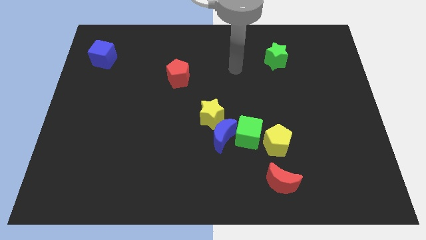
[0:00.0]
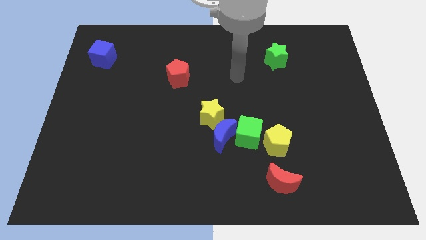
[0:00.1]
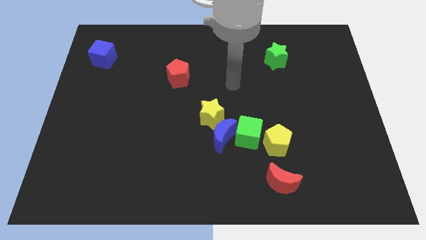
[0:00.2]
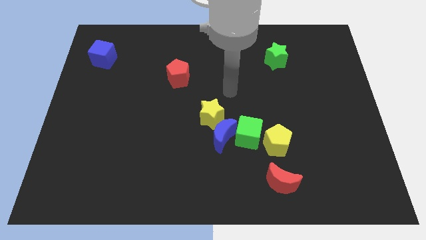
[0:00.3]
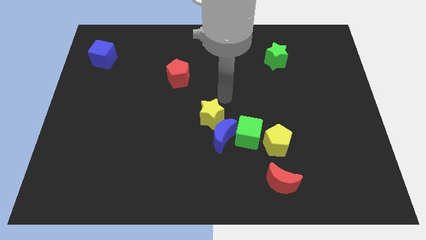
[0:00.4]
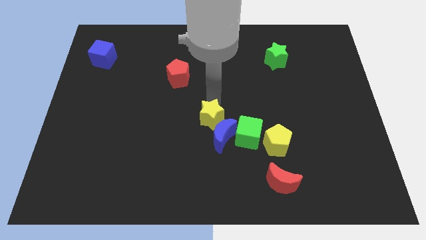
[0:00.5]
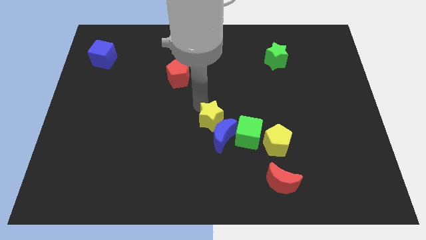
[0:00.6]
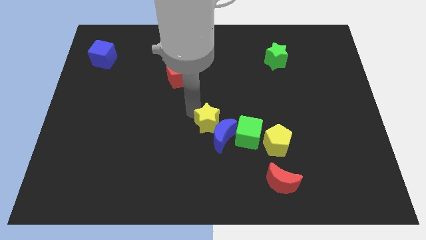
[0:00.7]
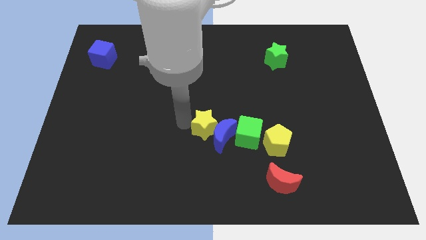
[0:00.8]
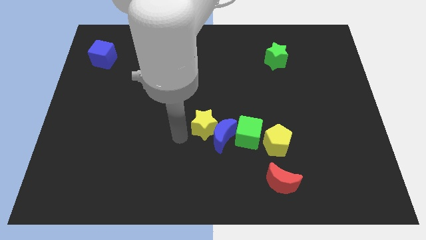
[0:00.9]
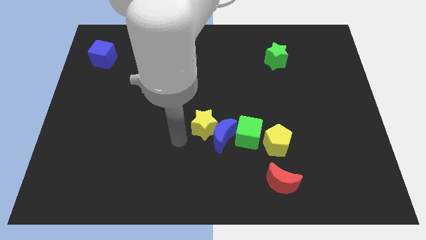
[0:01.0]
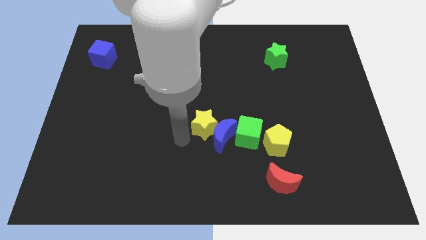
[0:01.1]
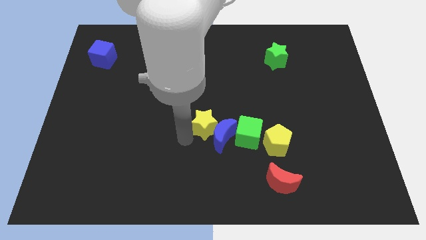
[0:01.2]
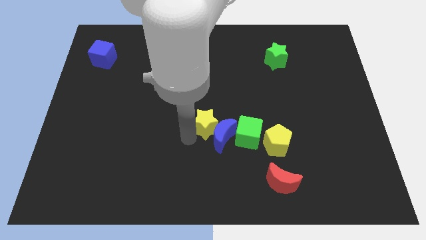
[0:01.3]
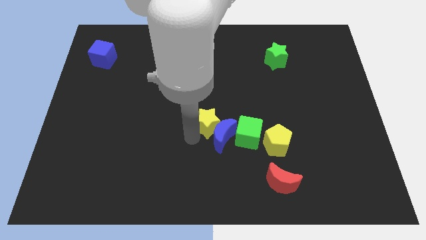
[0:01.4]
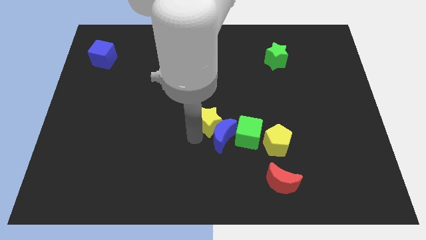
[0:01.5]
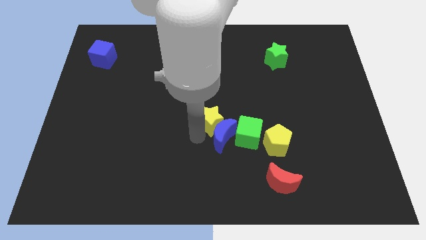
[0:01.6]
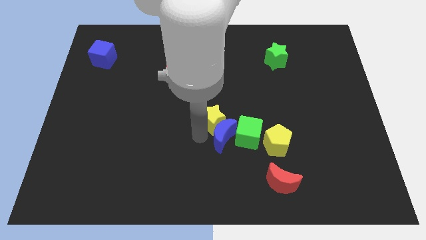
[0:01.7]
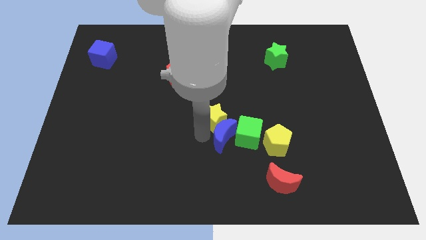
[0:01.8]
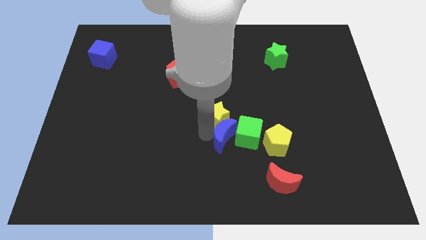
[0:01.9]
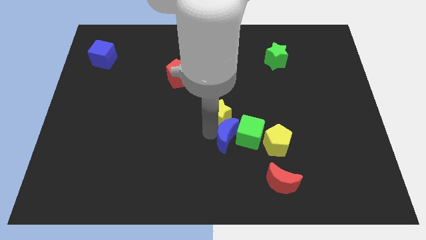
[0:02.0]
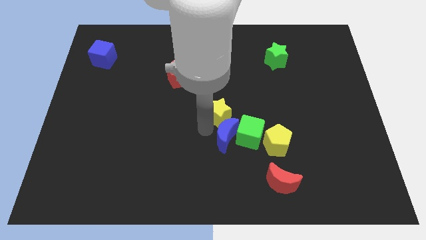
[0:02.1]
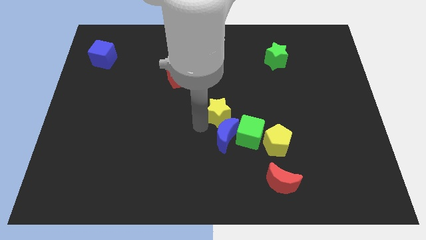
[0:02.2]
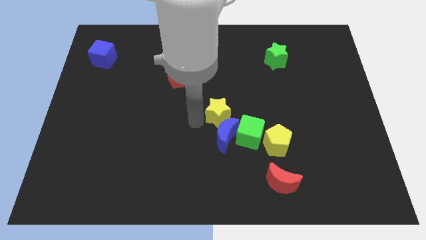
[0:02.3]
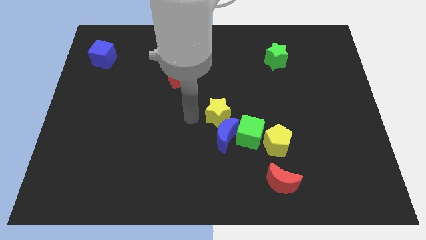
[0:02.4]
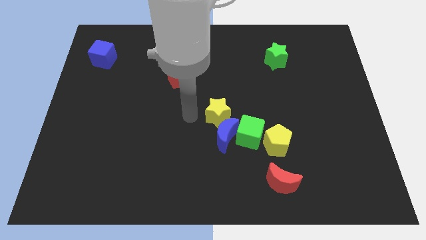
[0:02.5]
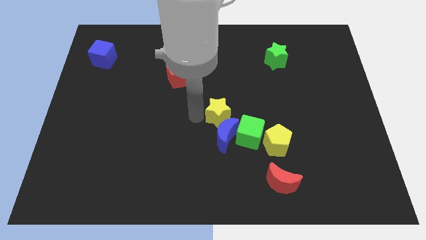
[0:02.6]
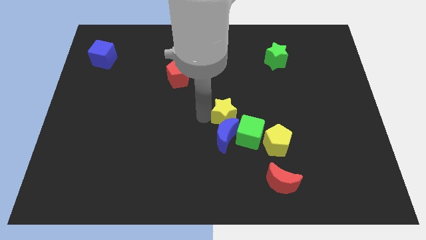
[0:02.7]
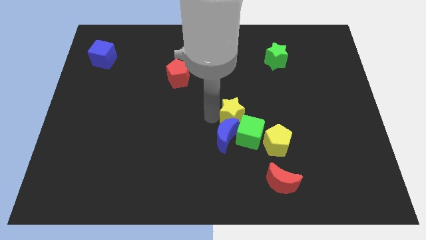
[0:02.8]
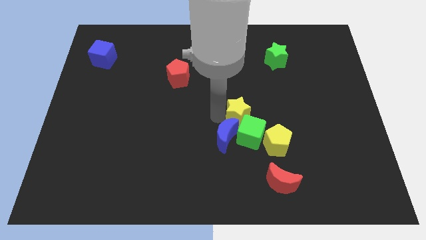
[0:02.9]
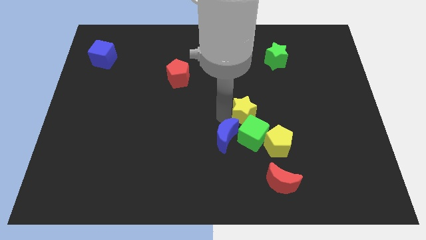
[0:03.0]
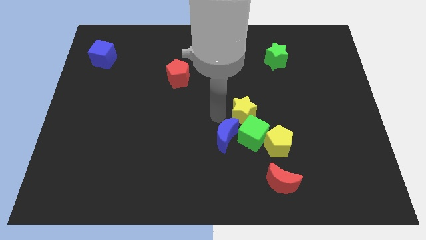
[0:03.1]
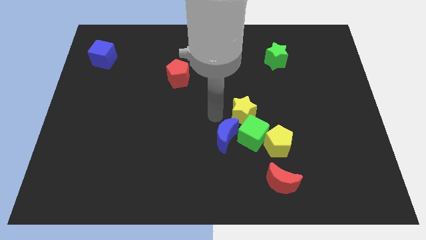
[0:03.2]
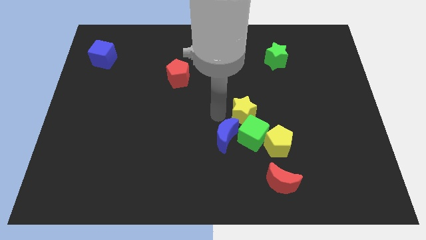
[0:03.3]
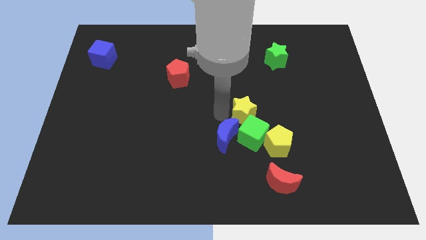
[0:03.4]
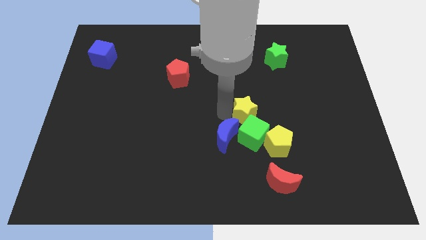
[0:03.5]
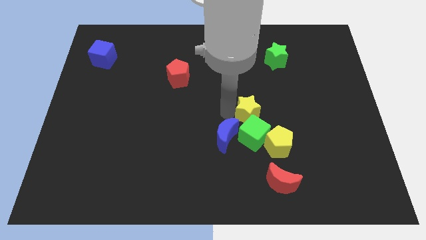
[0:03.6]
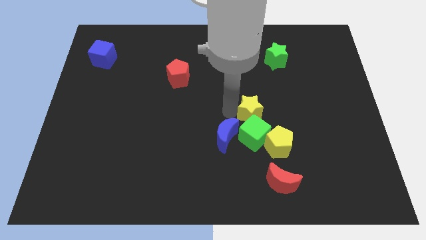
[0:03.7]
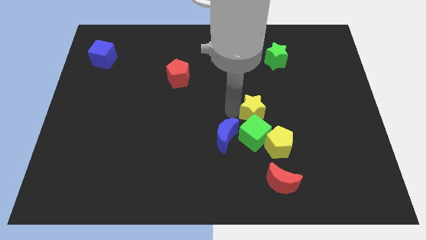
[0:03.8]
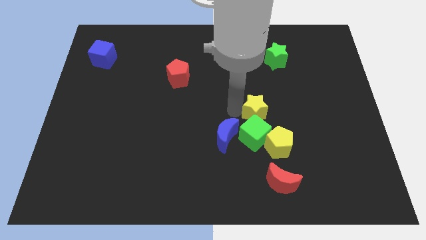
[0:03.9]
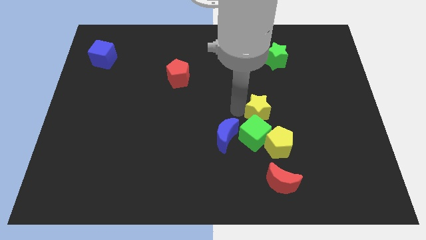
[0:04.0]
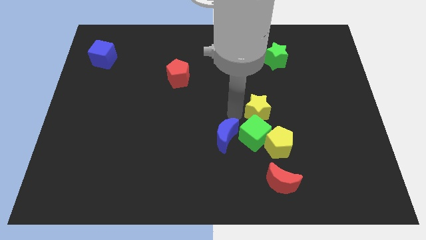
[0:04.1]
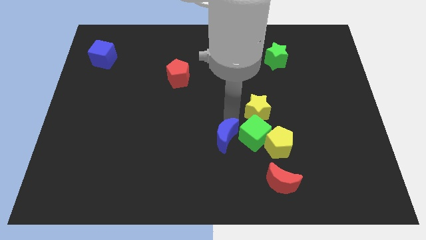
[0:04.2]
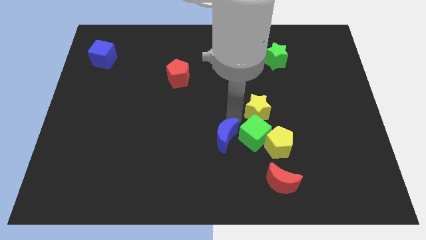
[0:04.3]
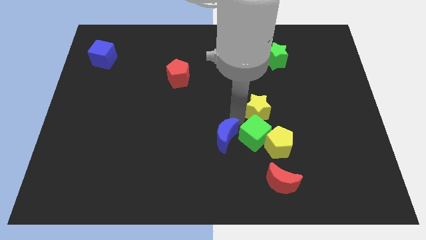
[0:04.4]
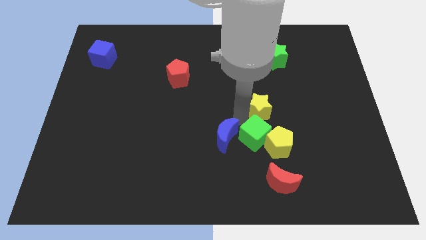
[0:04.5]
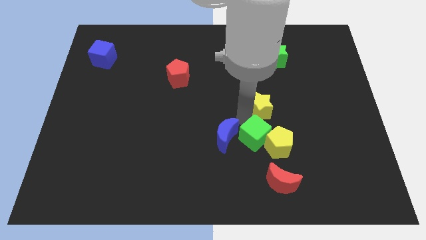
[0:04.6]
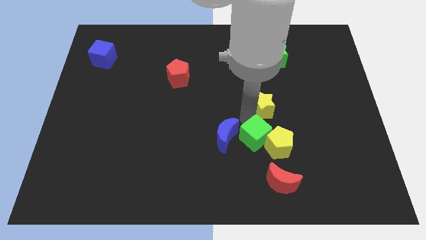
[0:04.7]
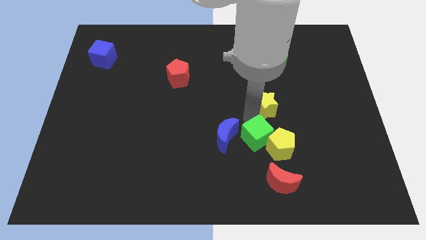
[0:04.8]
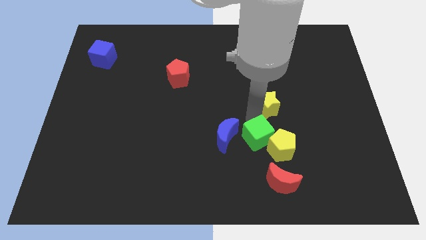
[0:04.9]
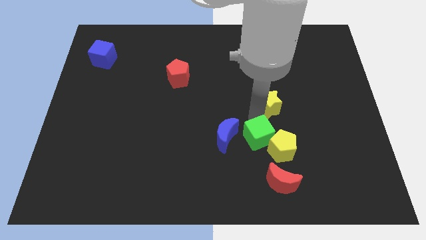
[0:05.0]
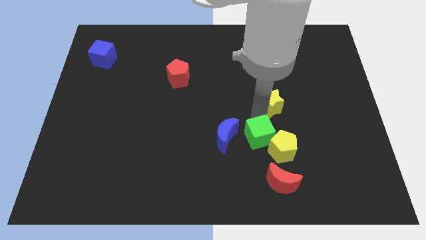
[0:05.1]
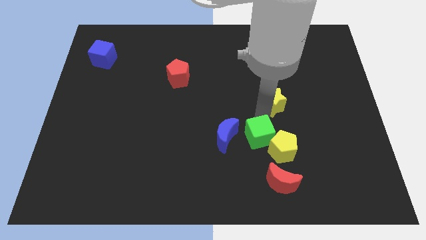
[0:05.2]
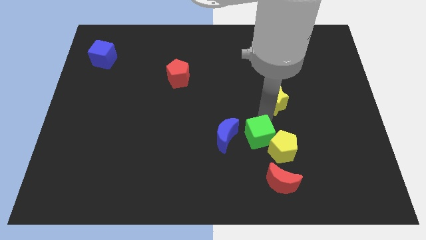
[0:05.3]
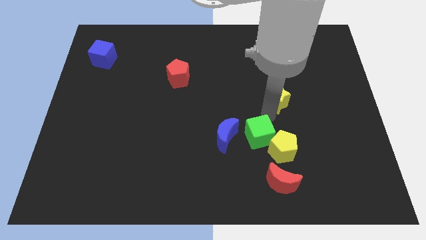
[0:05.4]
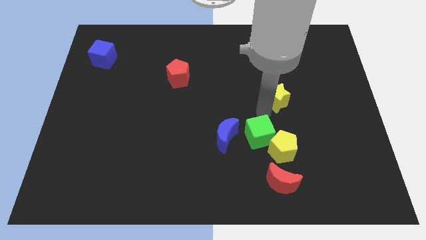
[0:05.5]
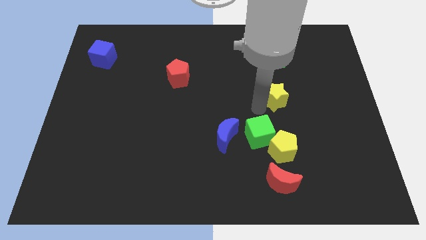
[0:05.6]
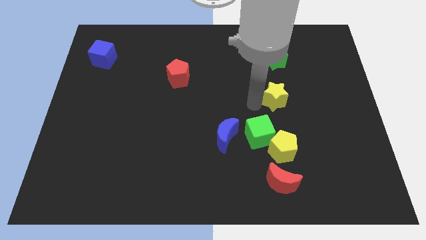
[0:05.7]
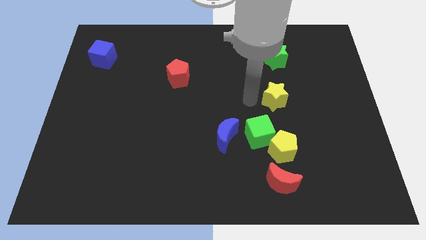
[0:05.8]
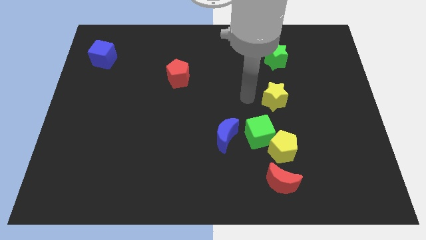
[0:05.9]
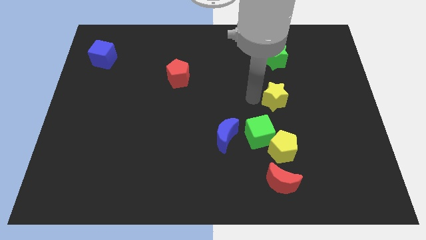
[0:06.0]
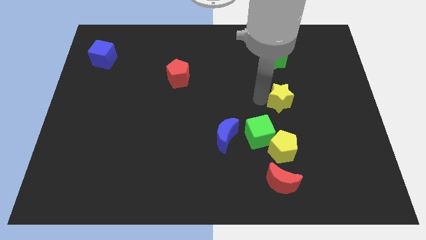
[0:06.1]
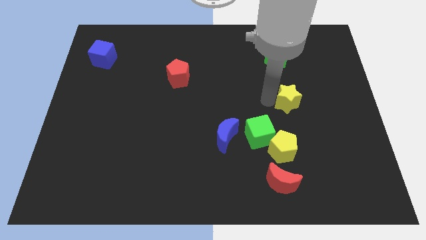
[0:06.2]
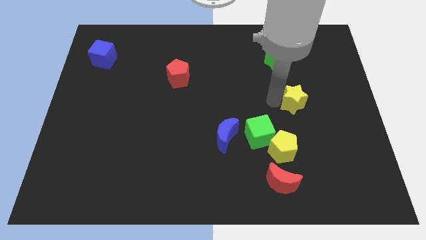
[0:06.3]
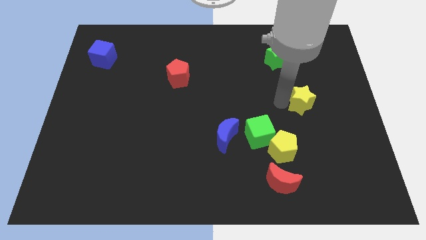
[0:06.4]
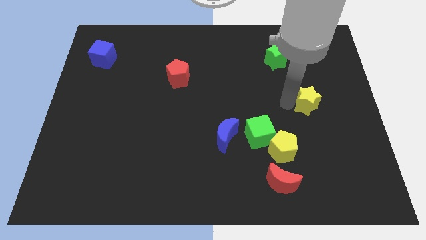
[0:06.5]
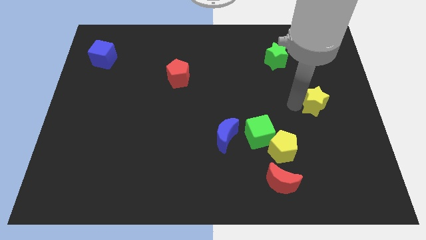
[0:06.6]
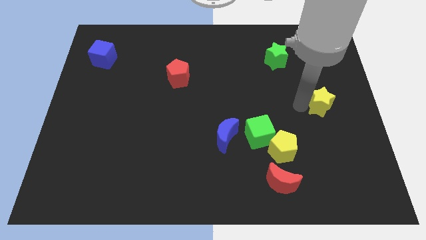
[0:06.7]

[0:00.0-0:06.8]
move the yellow star to the right side
